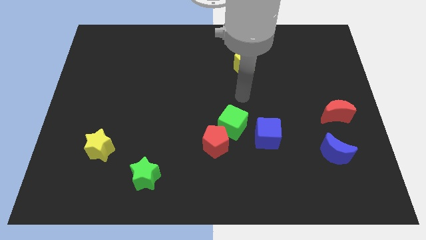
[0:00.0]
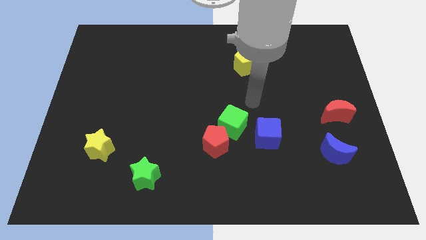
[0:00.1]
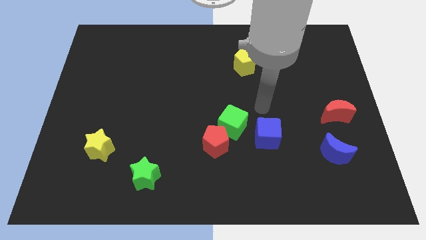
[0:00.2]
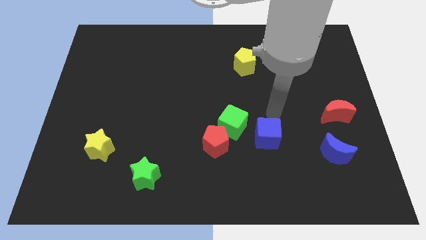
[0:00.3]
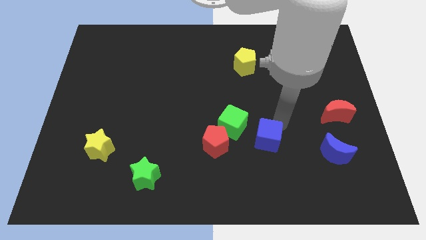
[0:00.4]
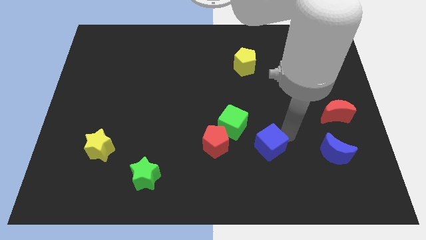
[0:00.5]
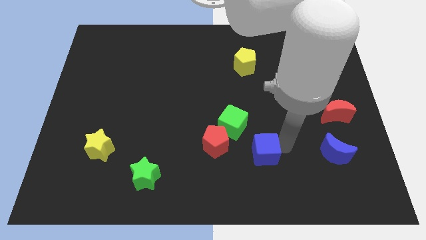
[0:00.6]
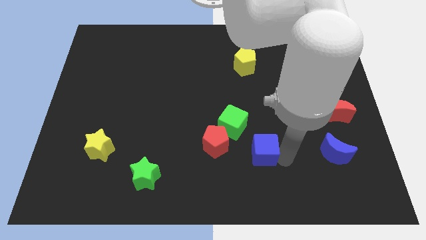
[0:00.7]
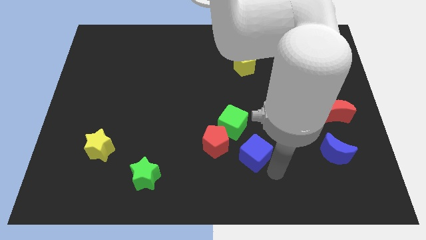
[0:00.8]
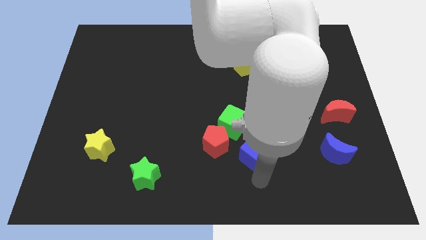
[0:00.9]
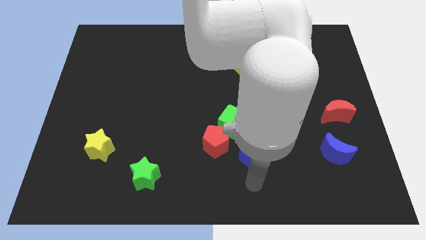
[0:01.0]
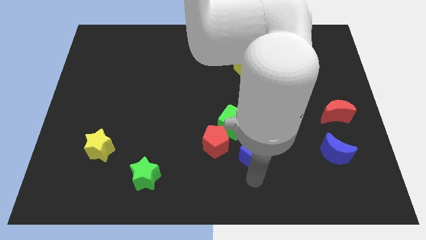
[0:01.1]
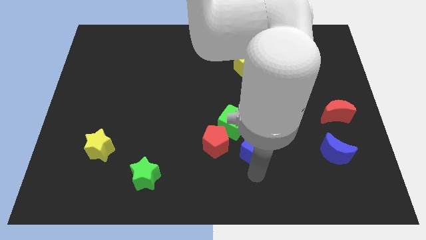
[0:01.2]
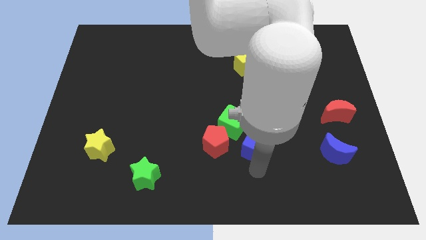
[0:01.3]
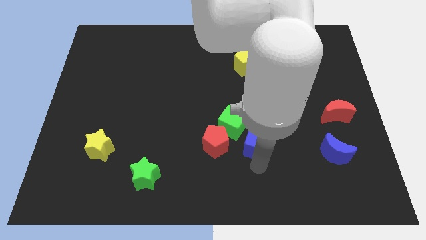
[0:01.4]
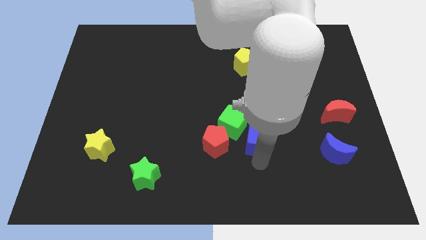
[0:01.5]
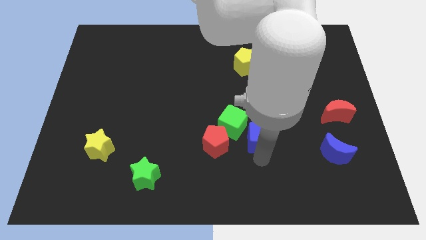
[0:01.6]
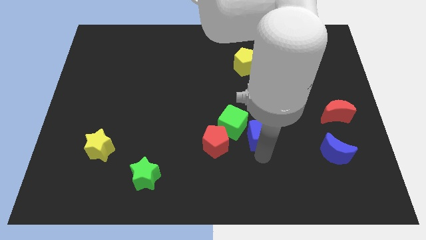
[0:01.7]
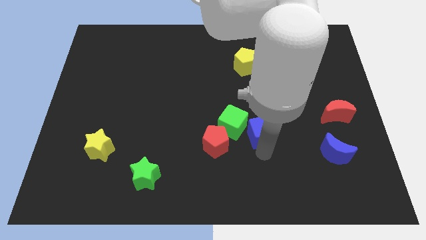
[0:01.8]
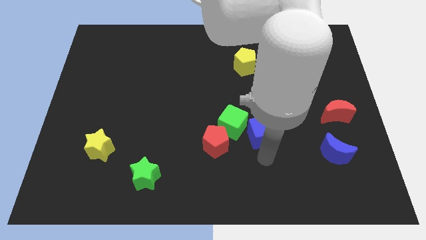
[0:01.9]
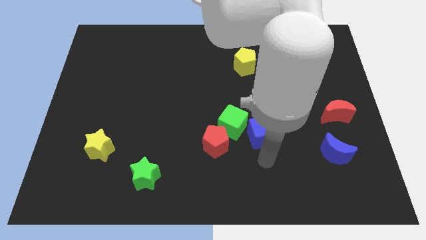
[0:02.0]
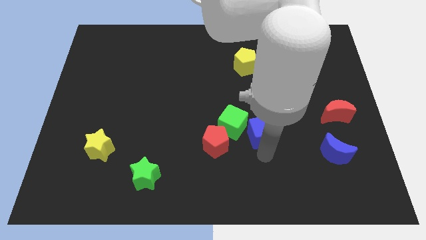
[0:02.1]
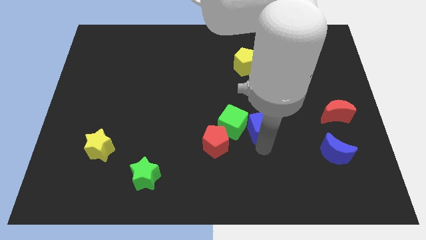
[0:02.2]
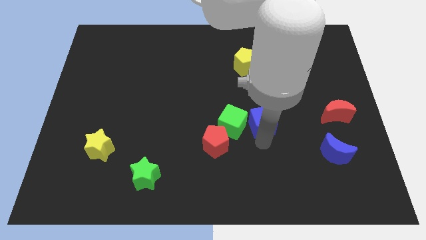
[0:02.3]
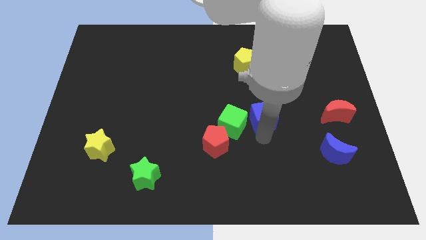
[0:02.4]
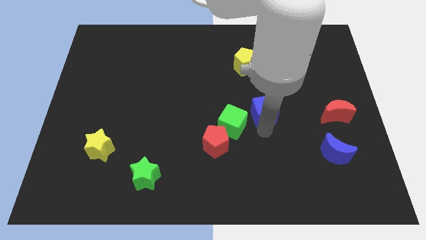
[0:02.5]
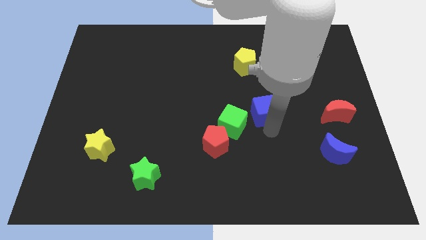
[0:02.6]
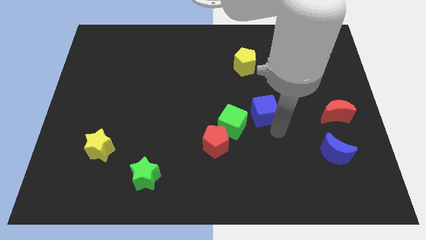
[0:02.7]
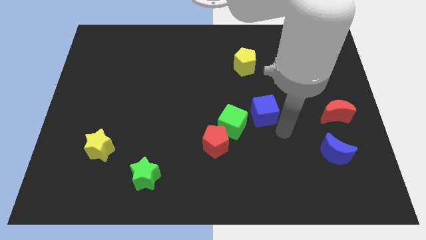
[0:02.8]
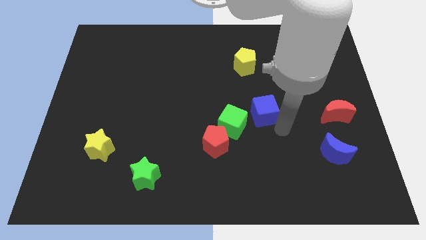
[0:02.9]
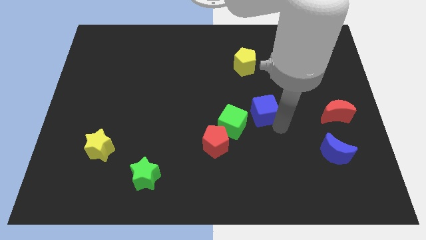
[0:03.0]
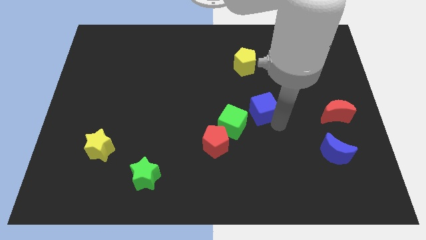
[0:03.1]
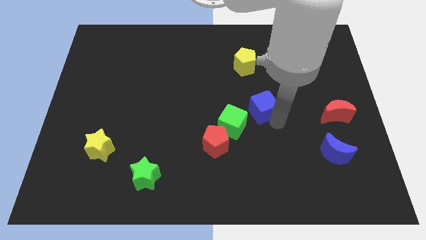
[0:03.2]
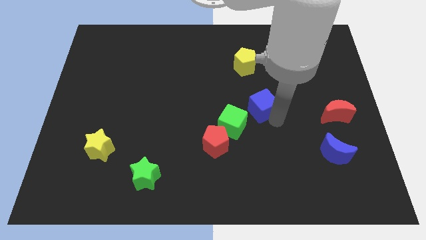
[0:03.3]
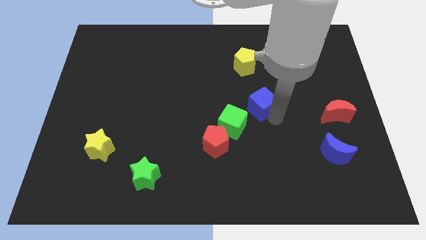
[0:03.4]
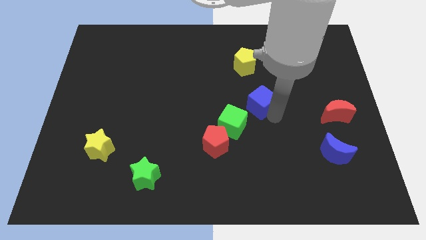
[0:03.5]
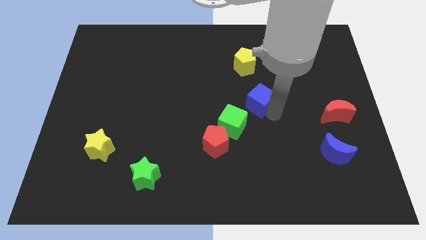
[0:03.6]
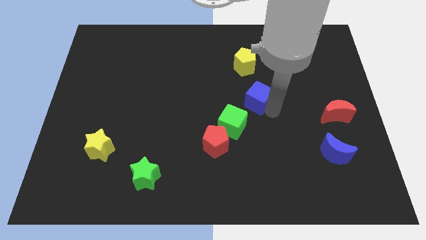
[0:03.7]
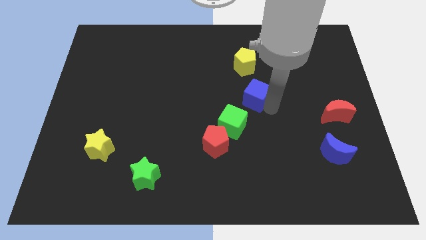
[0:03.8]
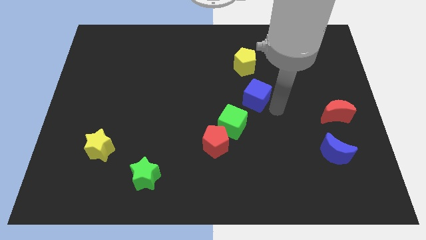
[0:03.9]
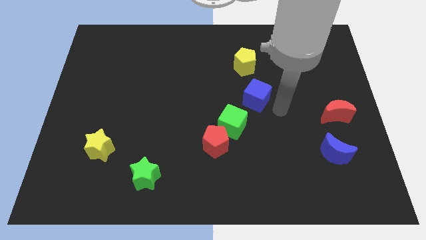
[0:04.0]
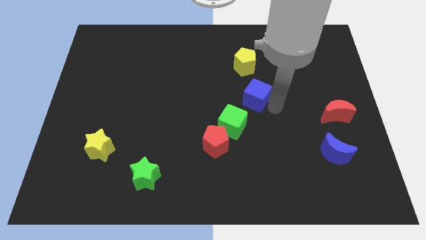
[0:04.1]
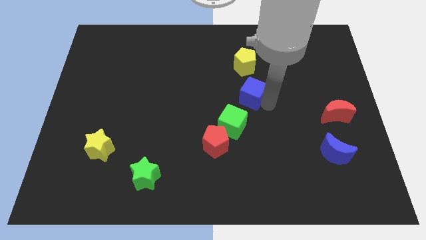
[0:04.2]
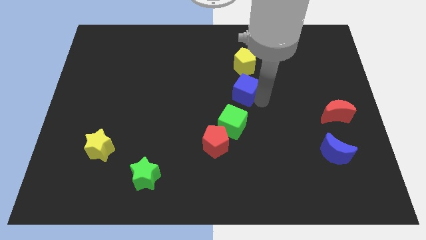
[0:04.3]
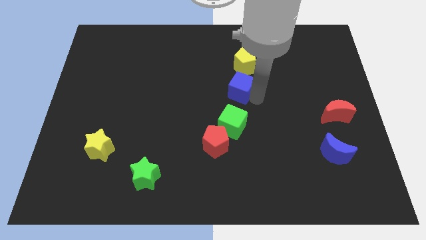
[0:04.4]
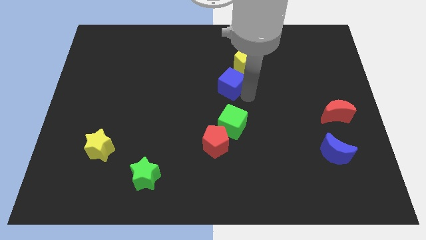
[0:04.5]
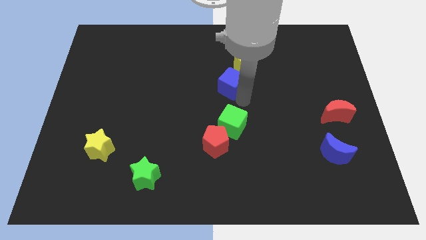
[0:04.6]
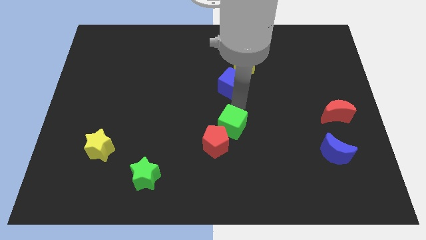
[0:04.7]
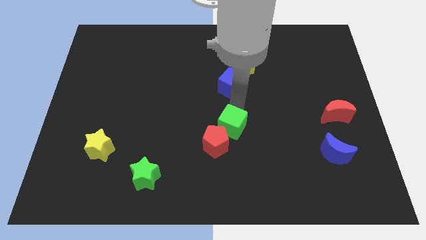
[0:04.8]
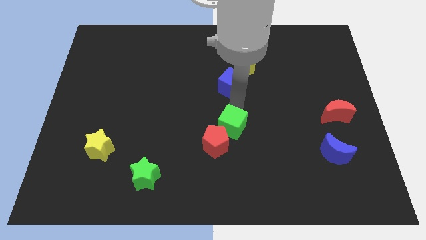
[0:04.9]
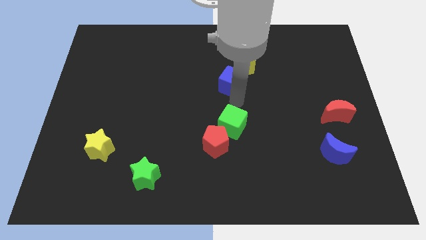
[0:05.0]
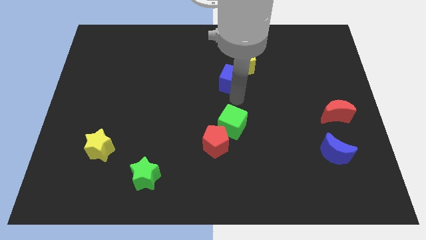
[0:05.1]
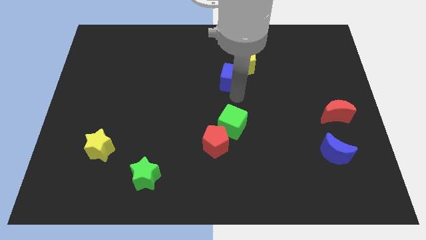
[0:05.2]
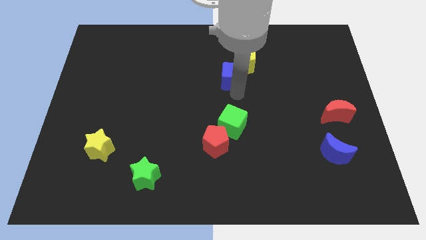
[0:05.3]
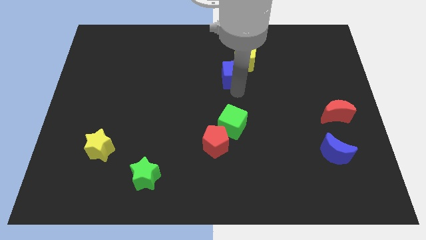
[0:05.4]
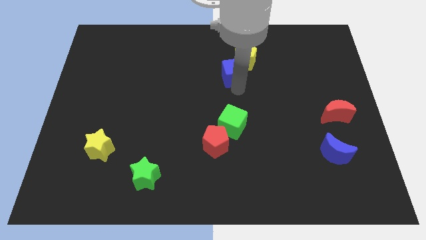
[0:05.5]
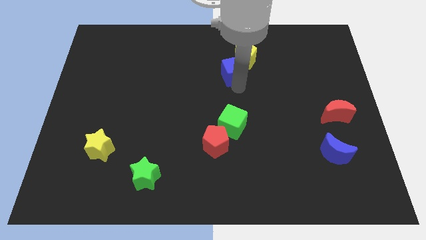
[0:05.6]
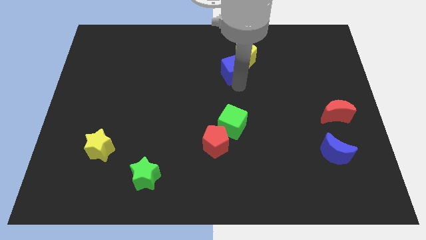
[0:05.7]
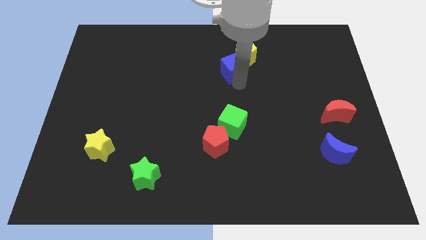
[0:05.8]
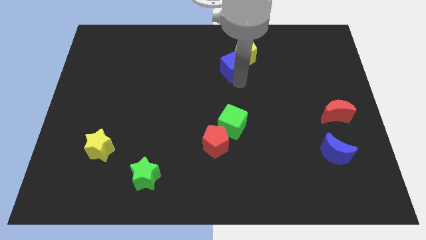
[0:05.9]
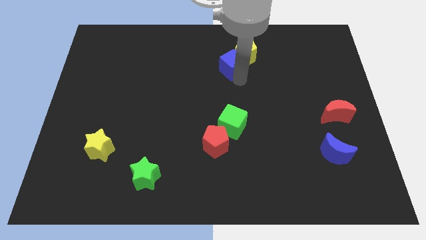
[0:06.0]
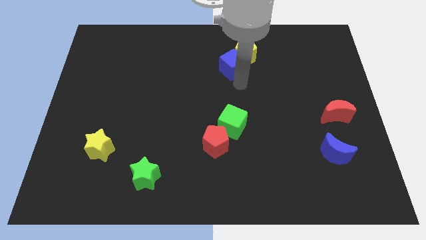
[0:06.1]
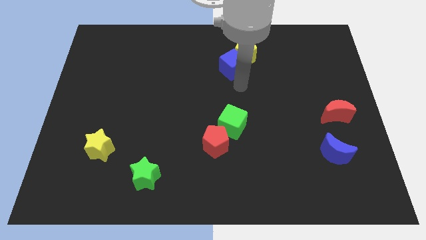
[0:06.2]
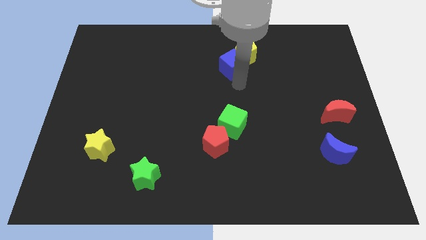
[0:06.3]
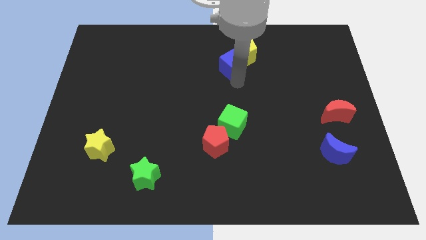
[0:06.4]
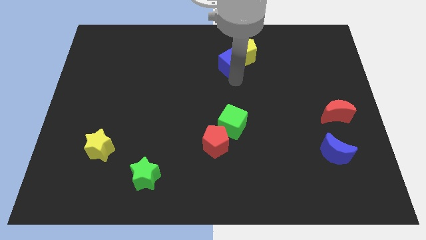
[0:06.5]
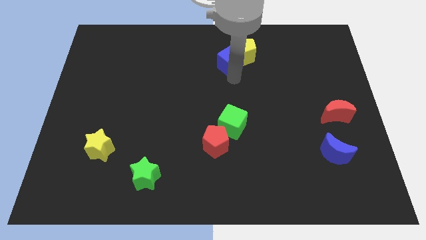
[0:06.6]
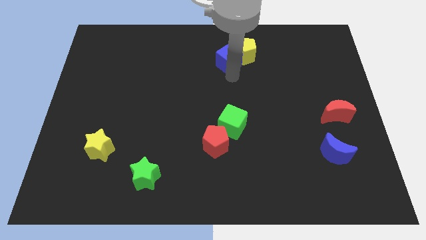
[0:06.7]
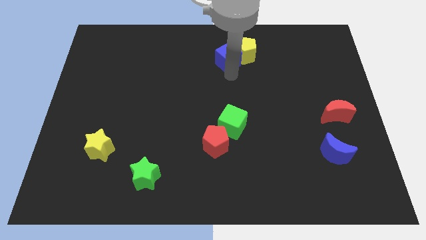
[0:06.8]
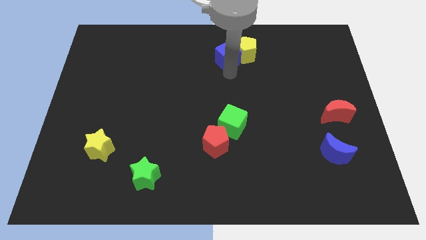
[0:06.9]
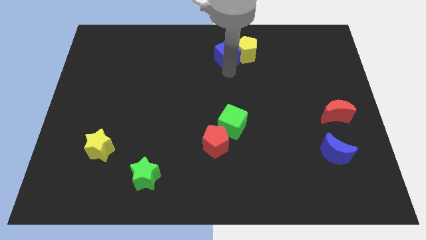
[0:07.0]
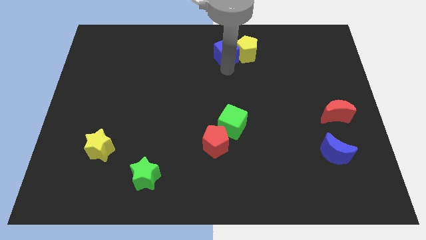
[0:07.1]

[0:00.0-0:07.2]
slide the blue cube to the top
